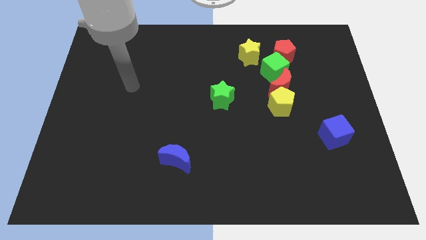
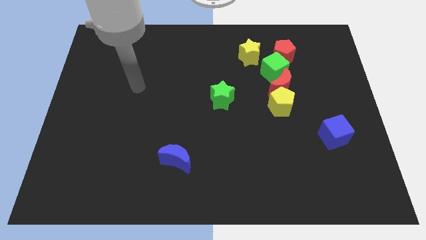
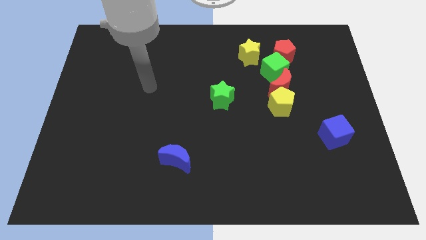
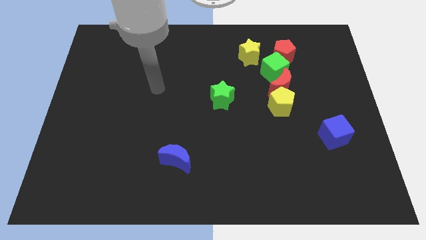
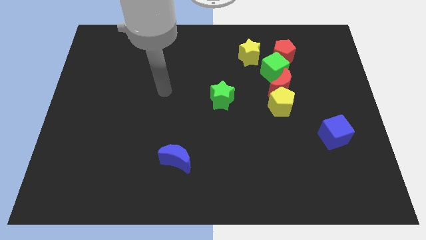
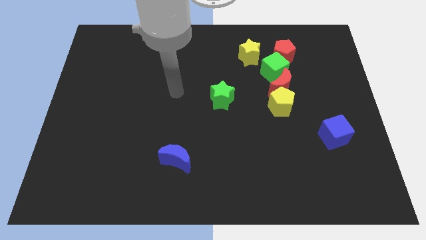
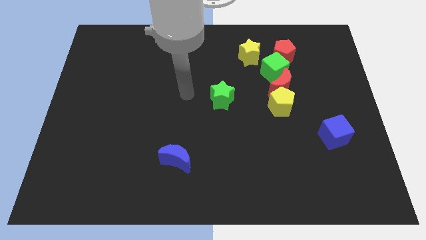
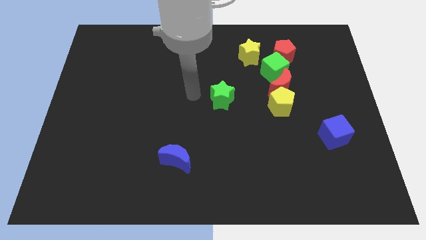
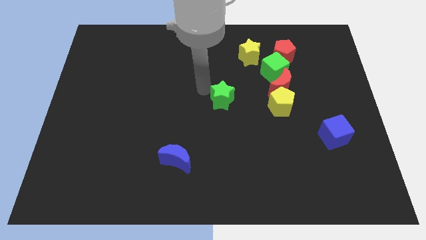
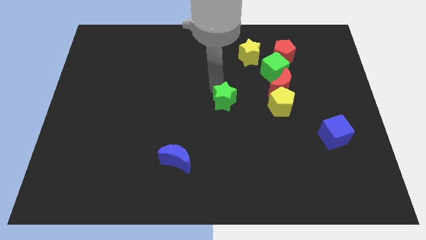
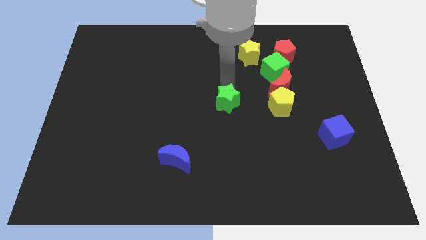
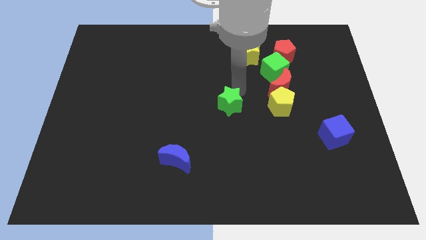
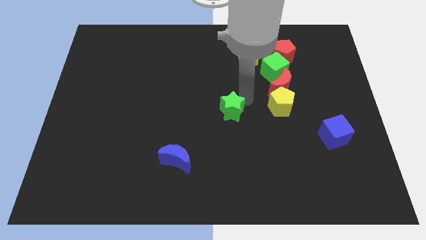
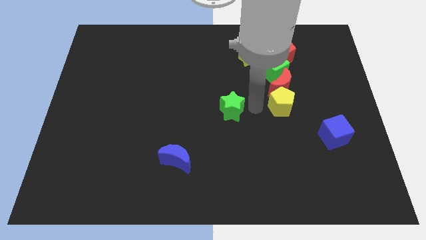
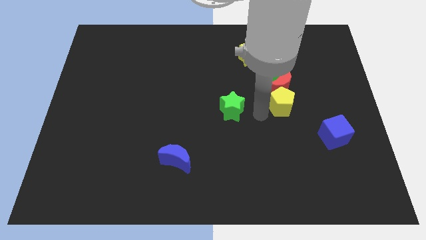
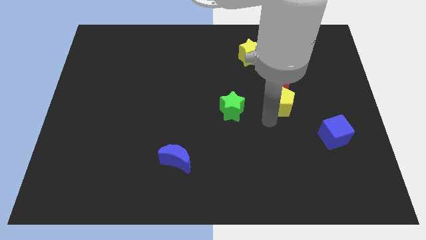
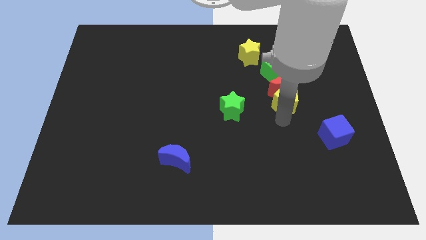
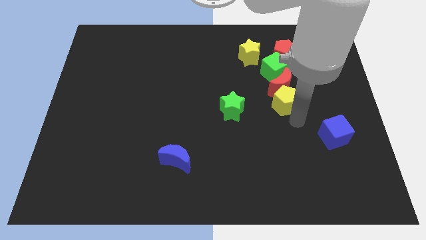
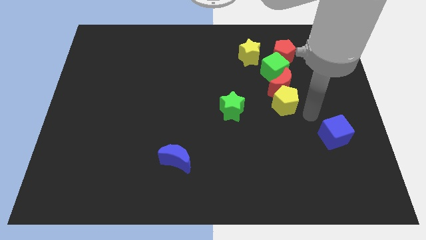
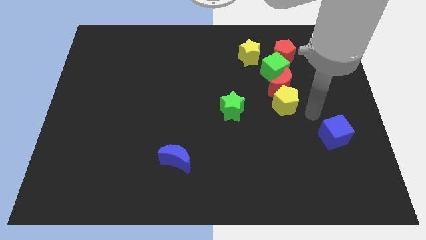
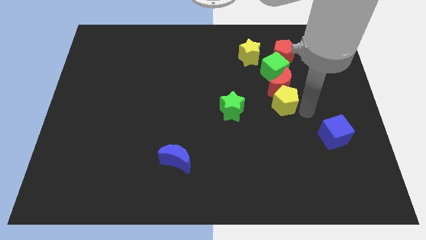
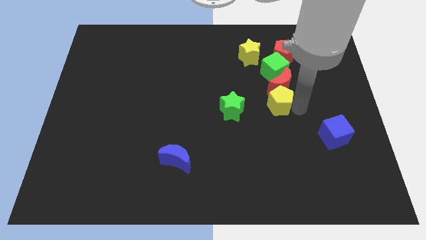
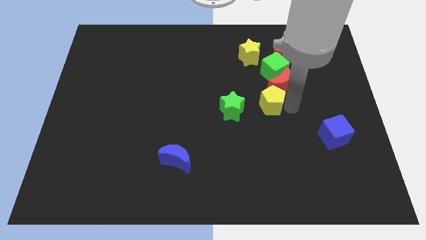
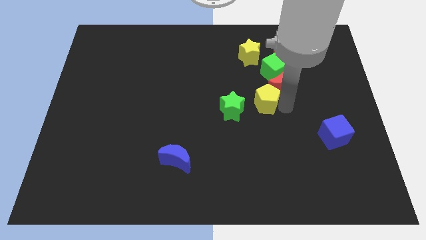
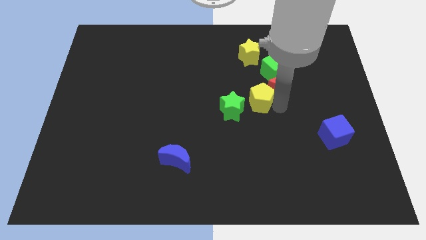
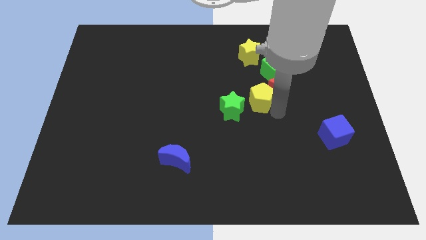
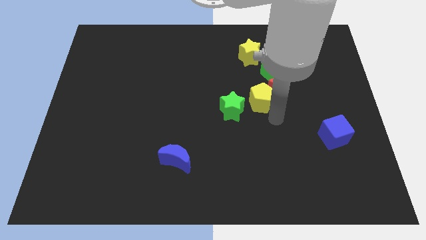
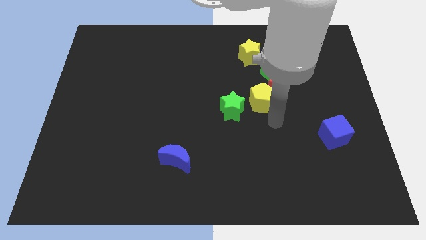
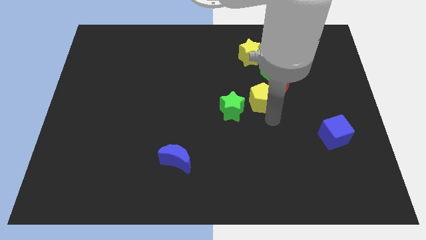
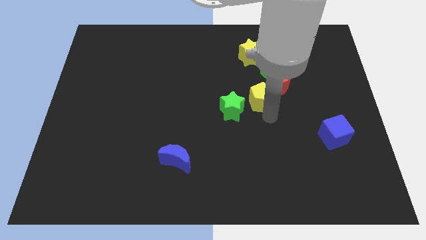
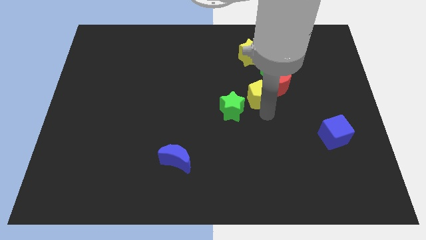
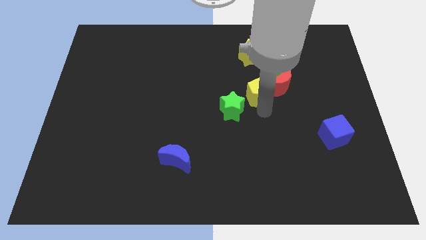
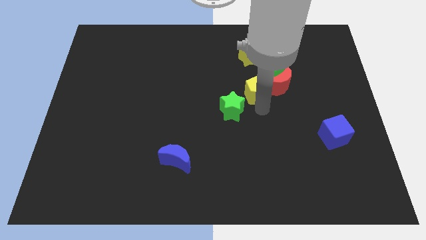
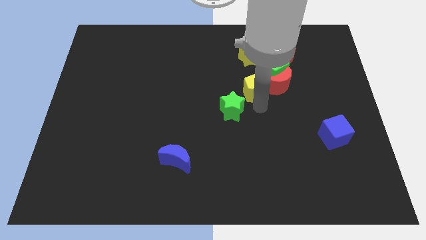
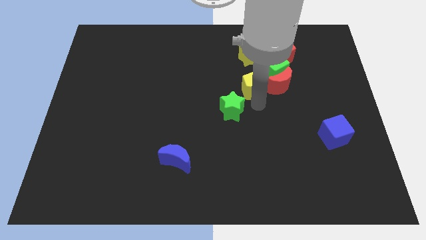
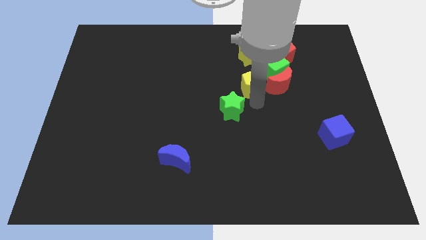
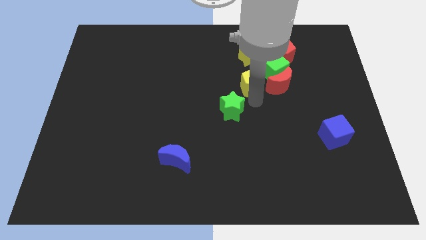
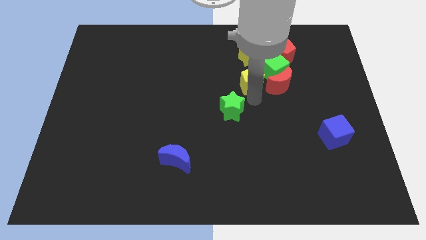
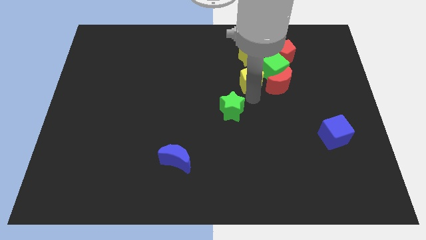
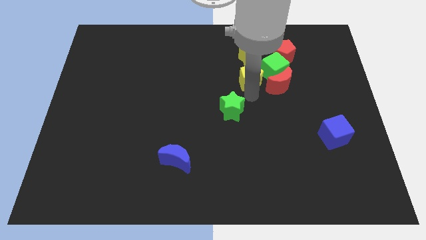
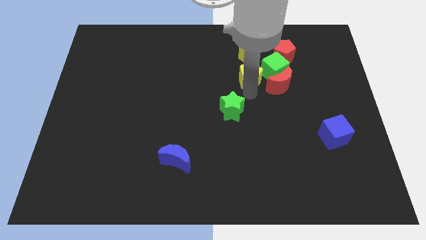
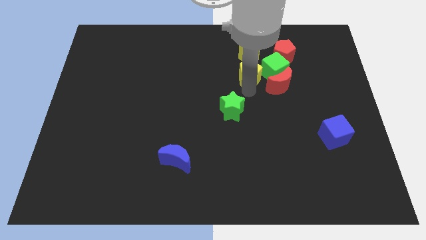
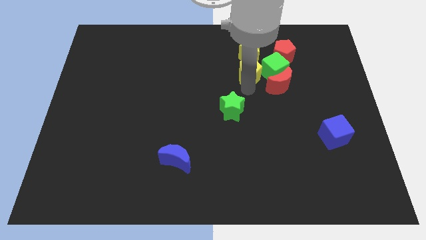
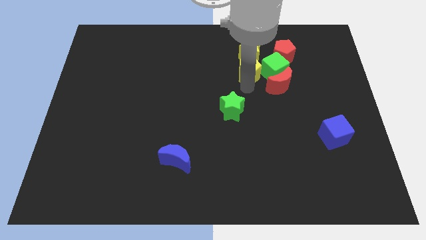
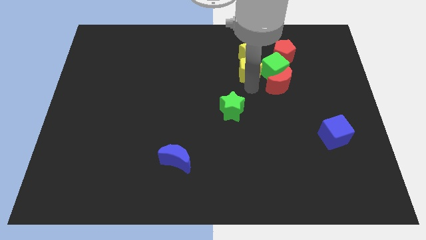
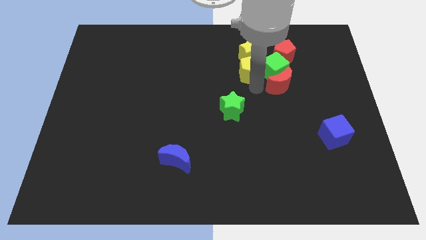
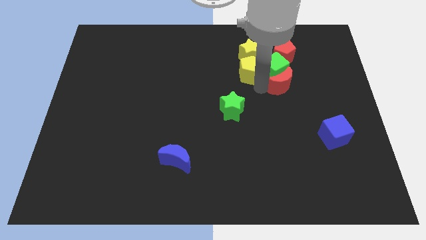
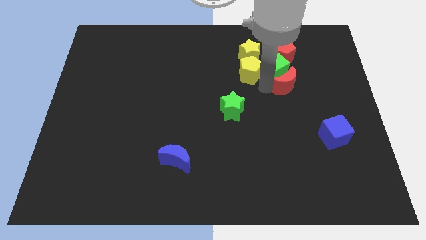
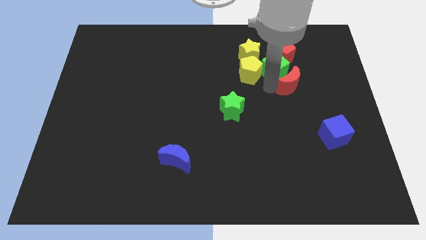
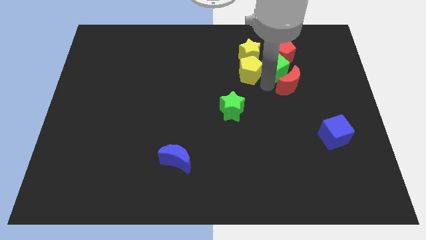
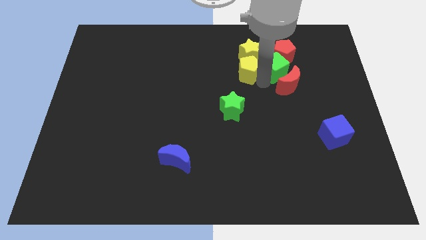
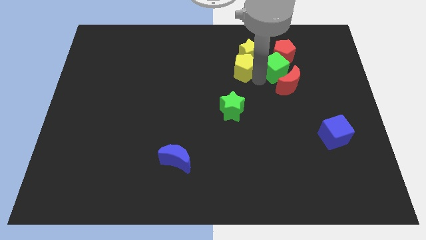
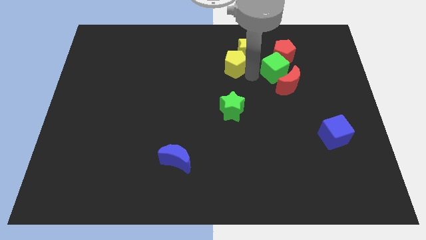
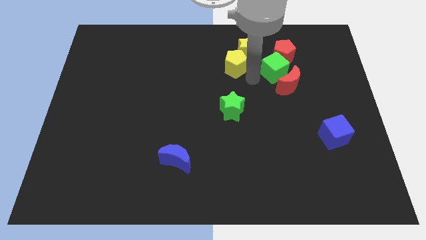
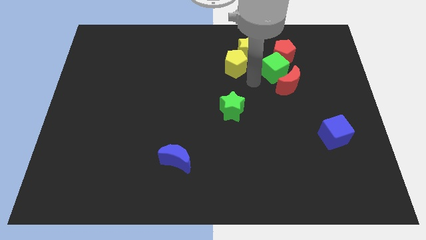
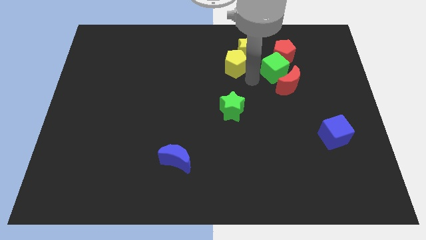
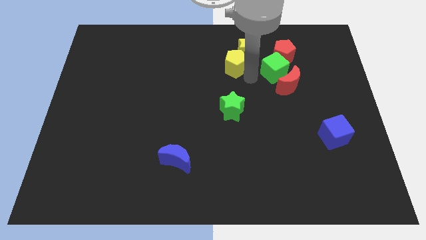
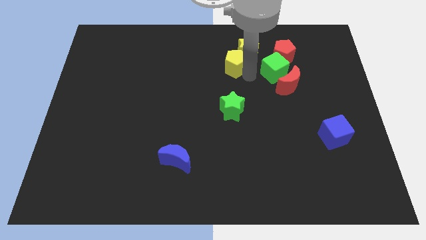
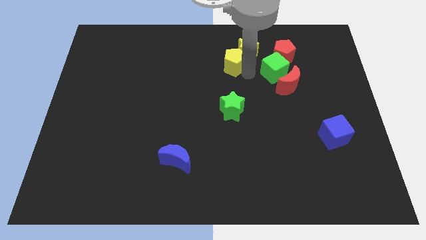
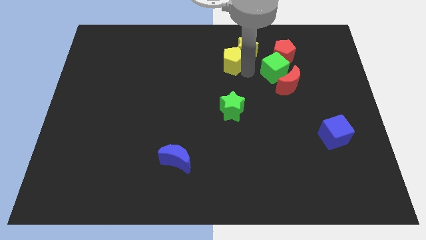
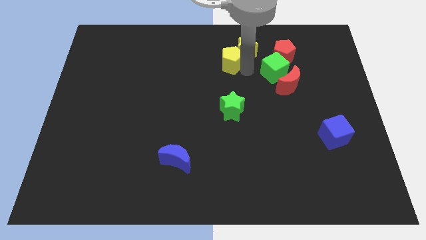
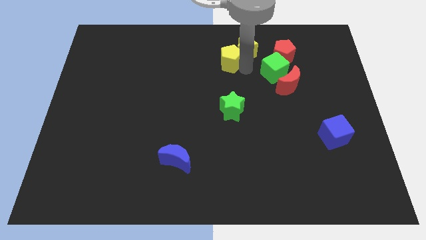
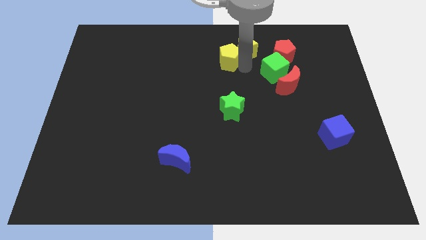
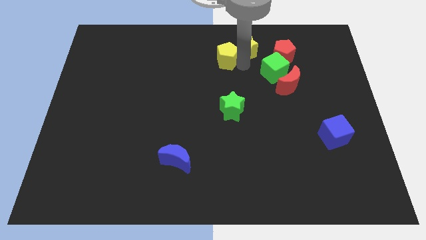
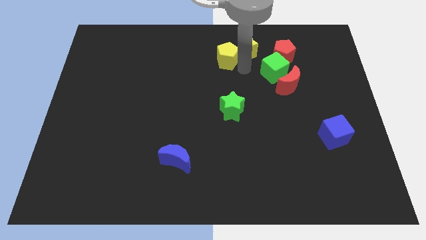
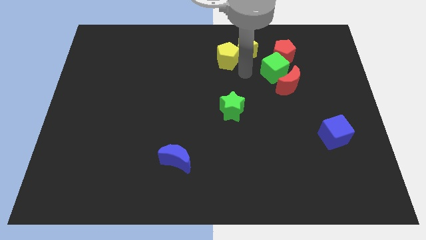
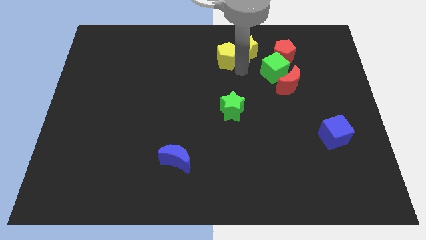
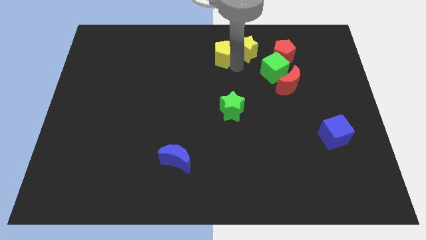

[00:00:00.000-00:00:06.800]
put the yellow pentagon to the top side
